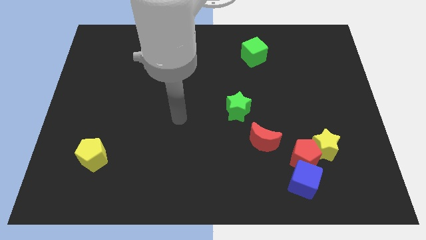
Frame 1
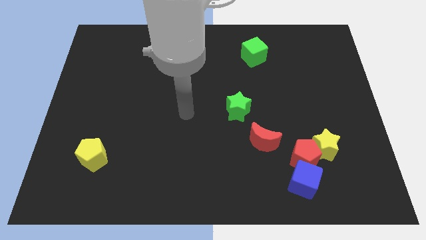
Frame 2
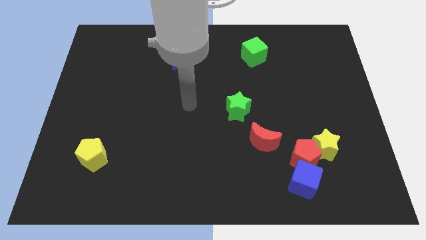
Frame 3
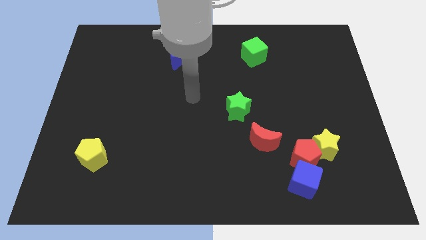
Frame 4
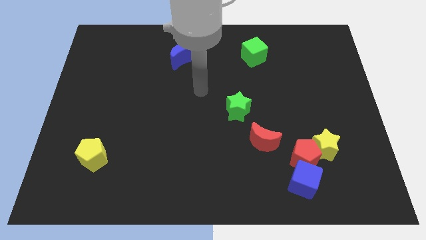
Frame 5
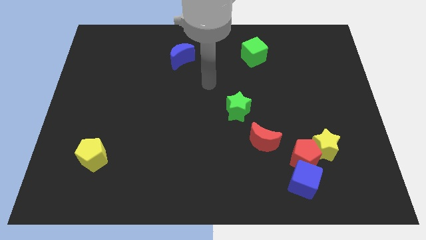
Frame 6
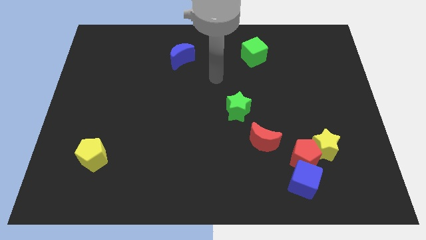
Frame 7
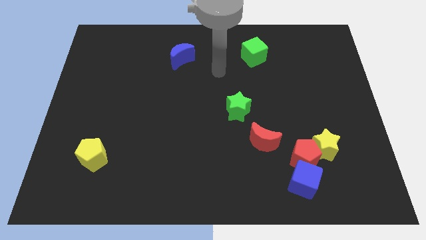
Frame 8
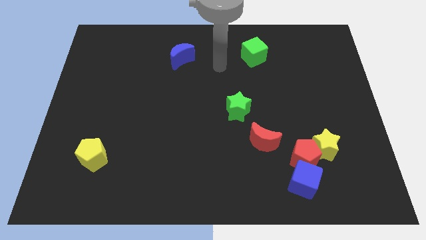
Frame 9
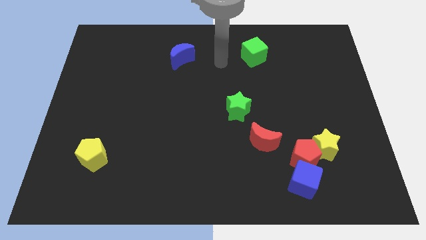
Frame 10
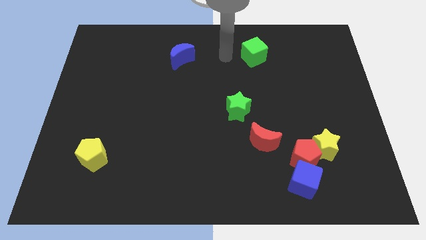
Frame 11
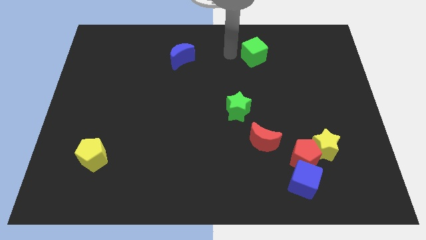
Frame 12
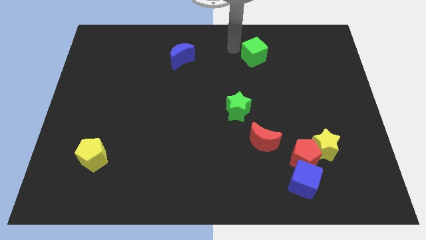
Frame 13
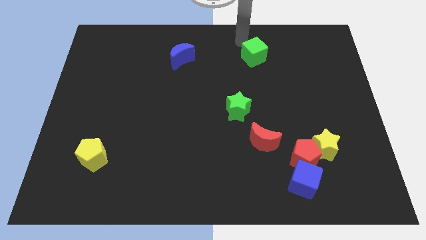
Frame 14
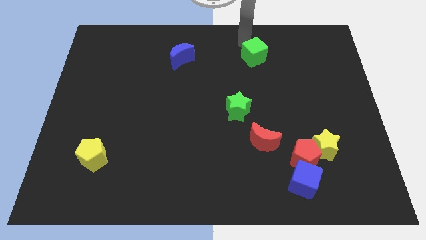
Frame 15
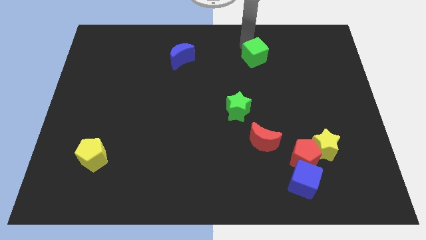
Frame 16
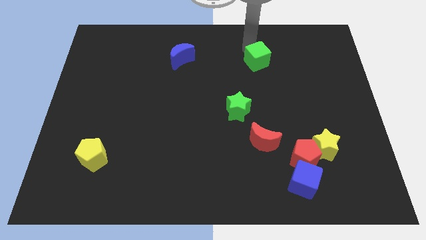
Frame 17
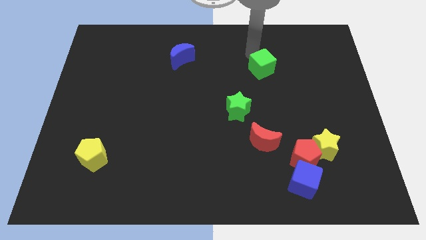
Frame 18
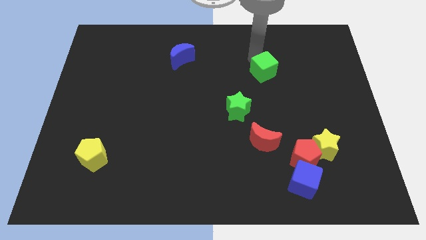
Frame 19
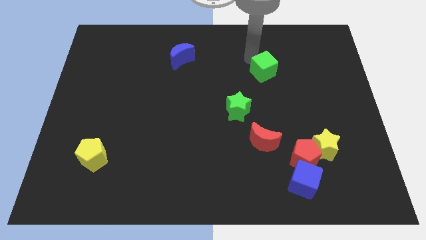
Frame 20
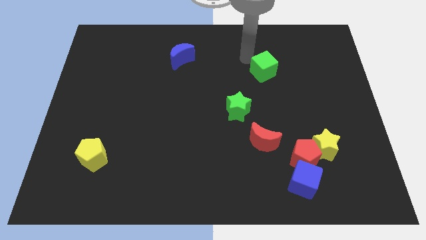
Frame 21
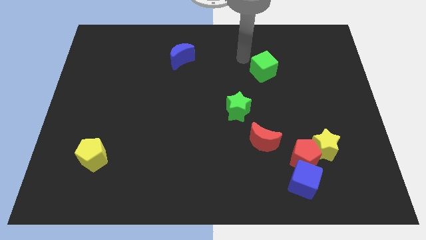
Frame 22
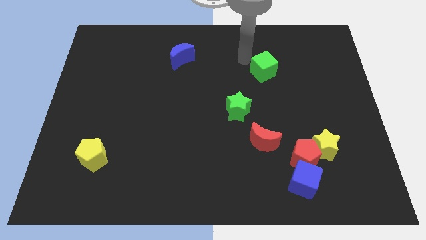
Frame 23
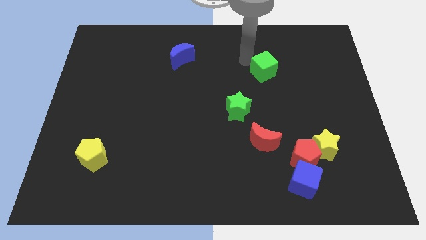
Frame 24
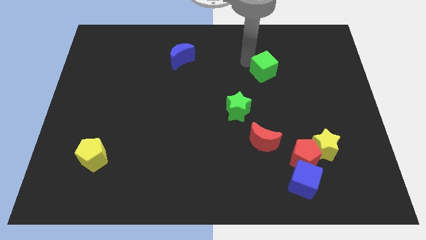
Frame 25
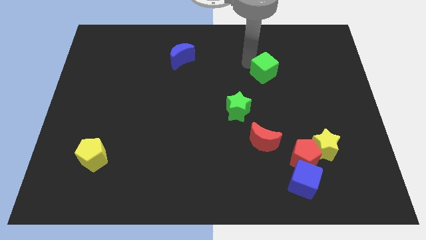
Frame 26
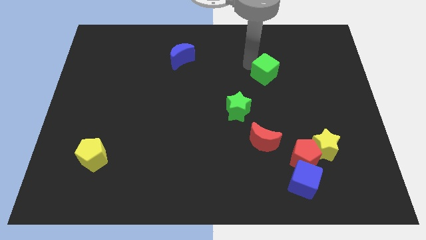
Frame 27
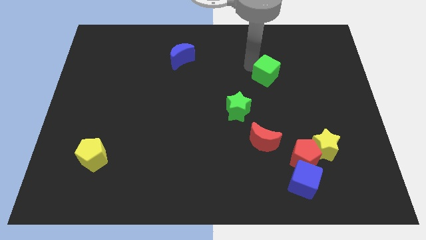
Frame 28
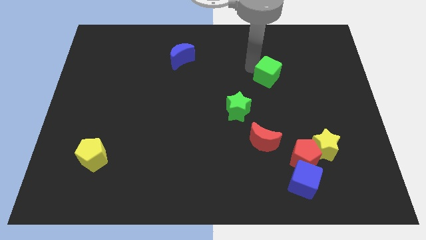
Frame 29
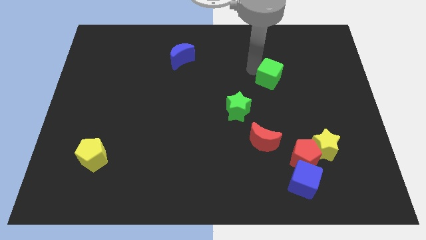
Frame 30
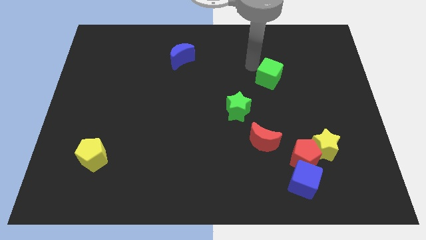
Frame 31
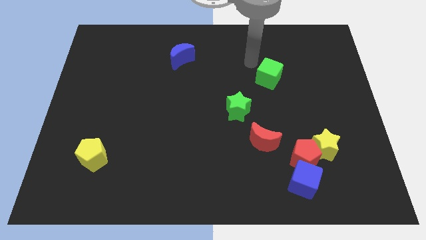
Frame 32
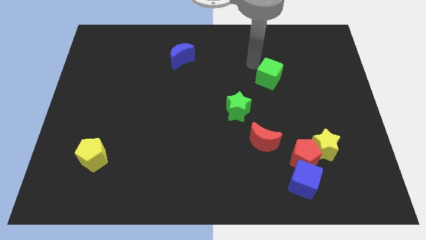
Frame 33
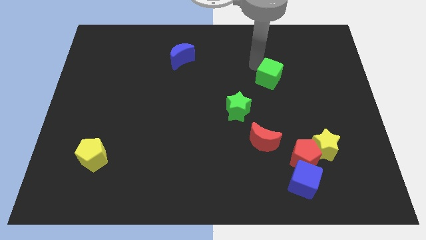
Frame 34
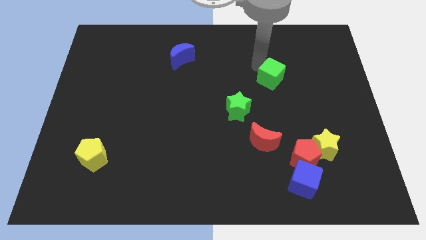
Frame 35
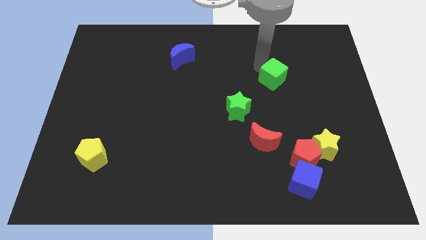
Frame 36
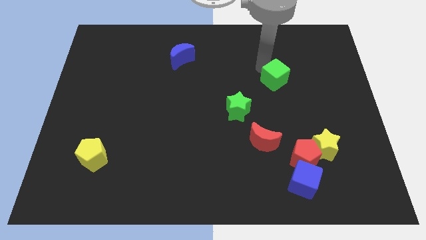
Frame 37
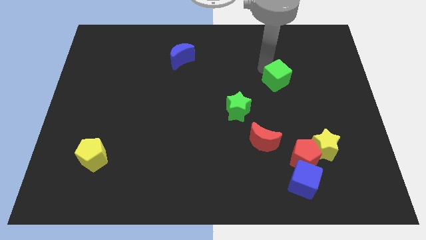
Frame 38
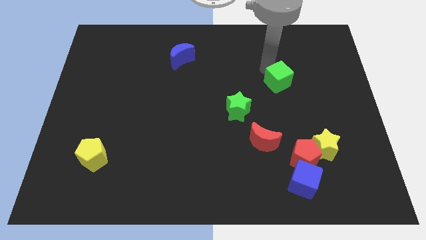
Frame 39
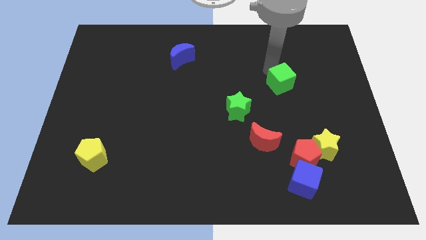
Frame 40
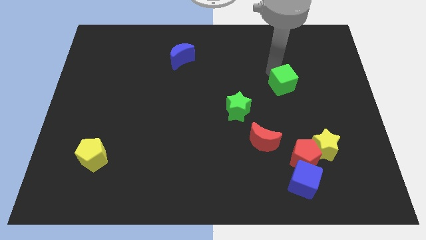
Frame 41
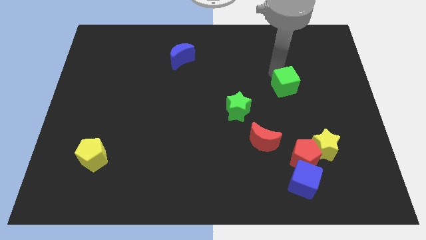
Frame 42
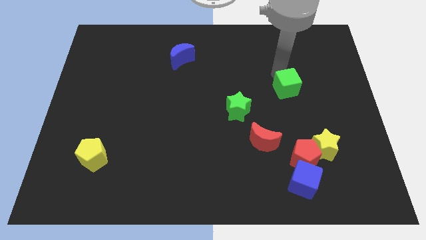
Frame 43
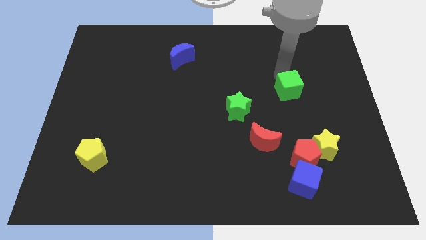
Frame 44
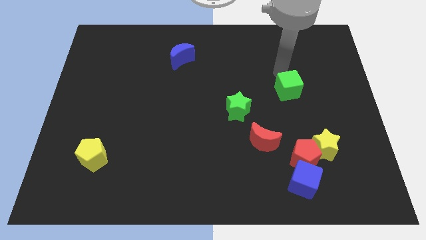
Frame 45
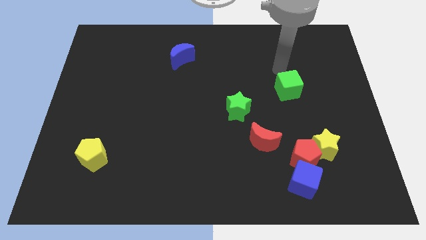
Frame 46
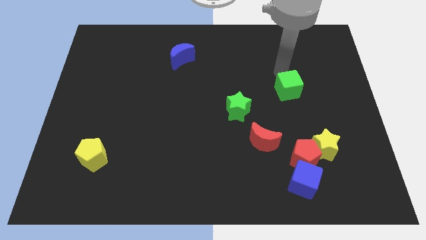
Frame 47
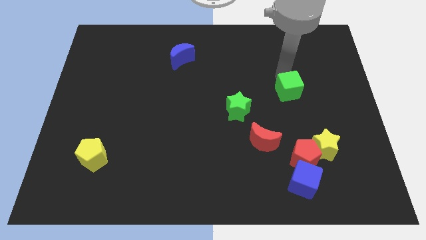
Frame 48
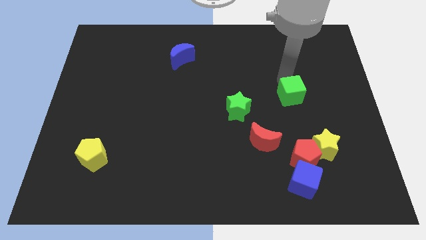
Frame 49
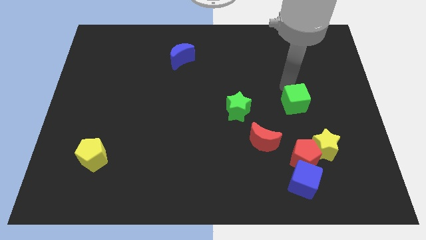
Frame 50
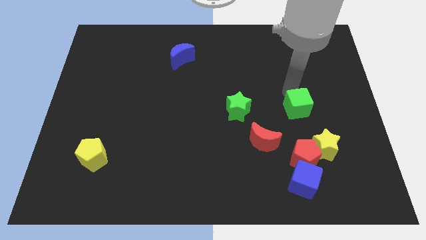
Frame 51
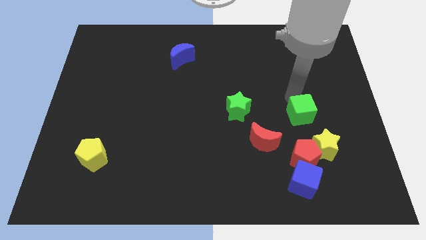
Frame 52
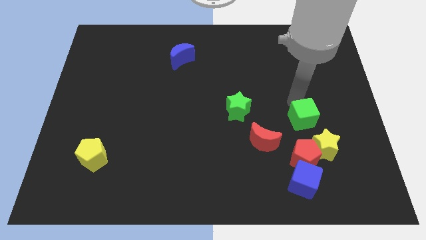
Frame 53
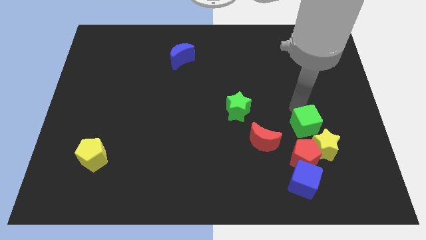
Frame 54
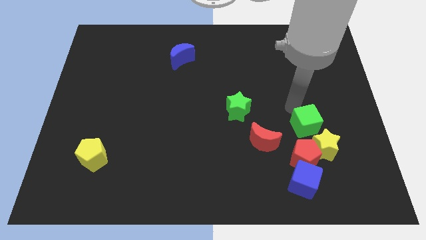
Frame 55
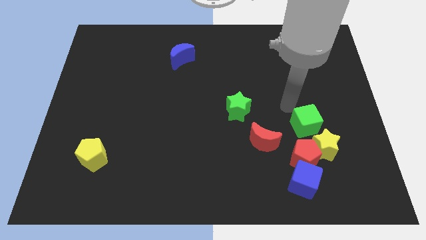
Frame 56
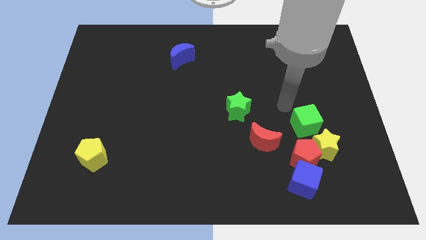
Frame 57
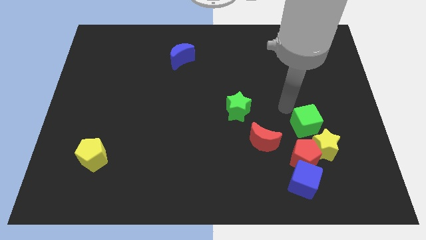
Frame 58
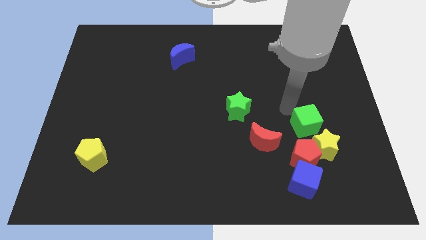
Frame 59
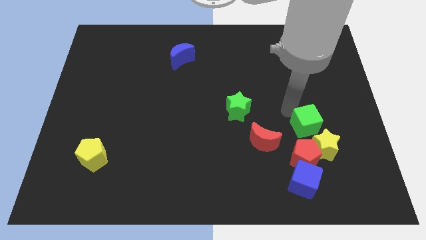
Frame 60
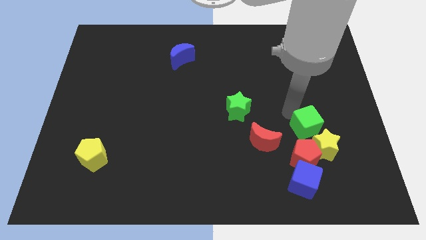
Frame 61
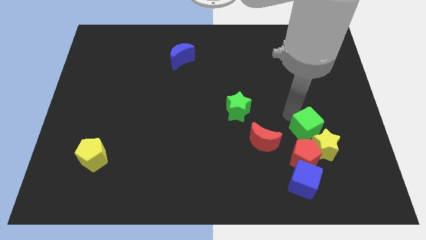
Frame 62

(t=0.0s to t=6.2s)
move the green cube to the yellow star
